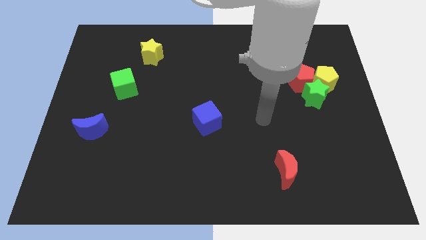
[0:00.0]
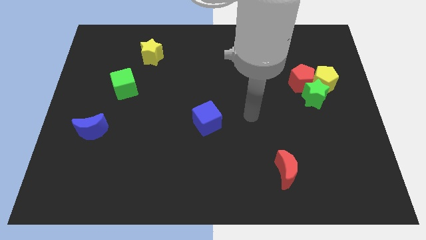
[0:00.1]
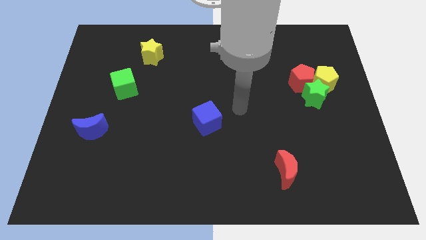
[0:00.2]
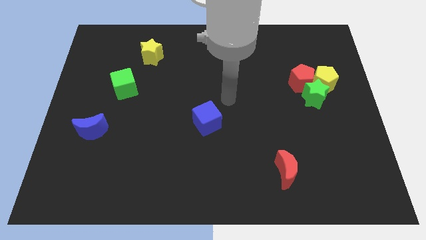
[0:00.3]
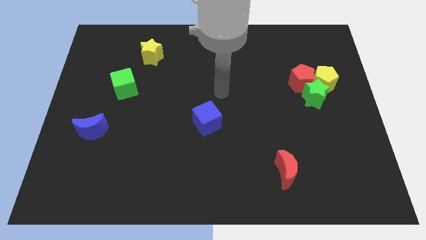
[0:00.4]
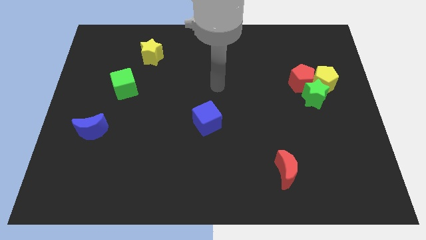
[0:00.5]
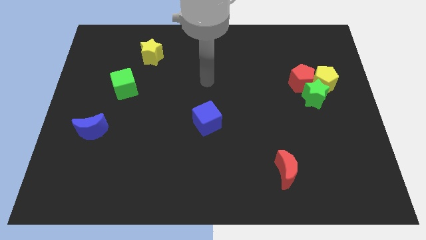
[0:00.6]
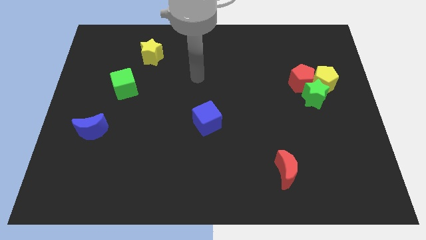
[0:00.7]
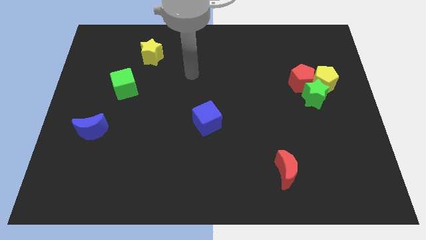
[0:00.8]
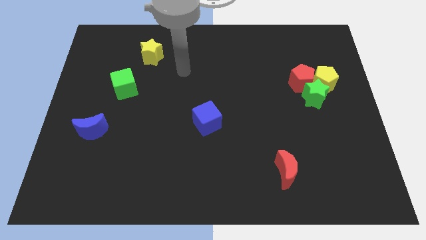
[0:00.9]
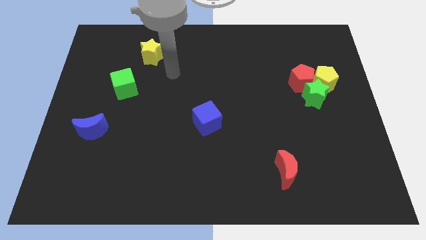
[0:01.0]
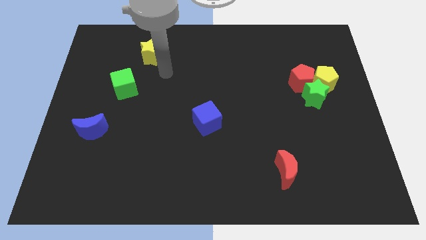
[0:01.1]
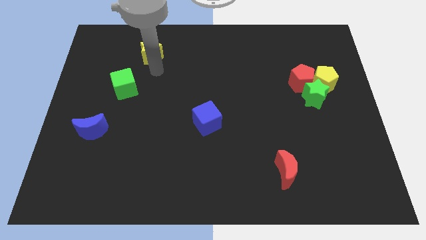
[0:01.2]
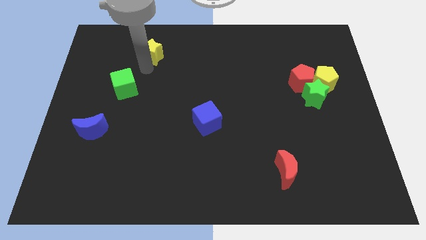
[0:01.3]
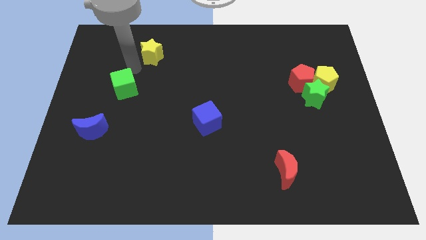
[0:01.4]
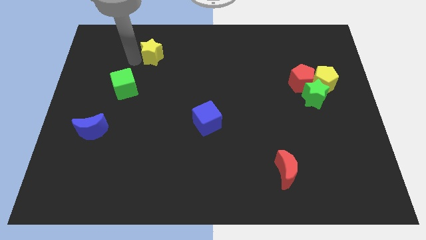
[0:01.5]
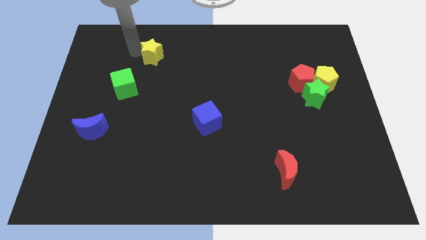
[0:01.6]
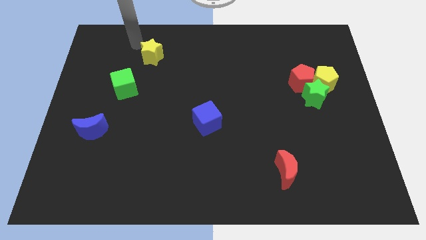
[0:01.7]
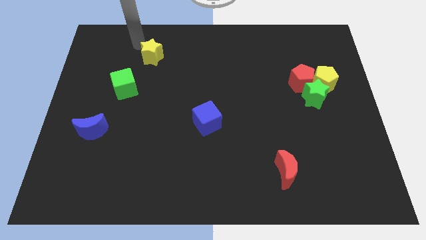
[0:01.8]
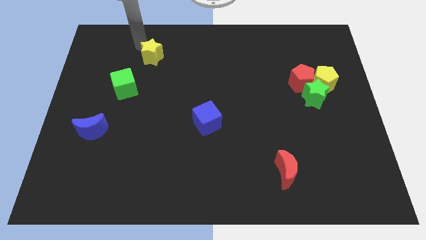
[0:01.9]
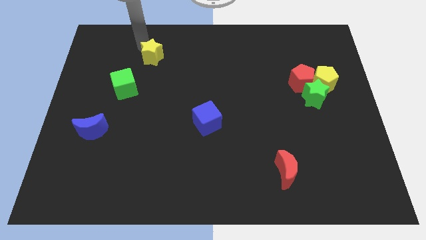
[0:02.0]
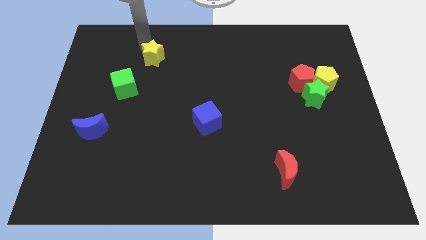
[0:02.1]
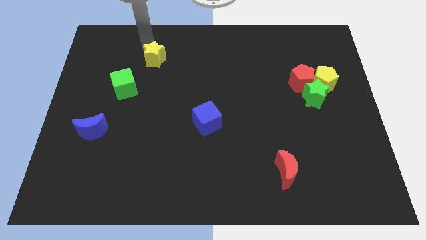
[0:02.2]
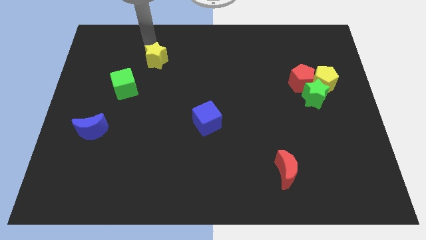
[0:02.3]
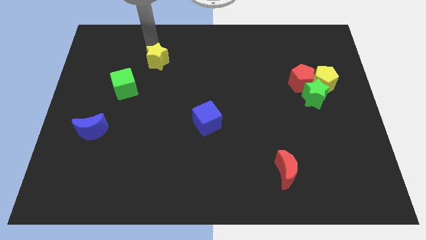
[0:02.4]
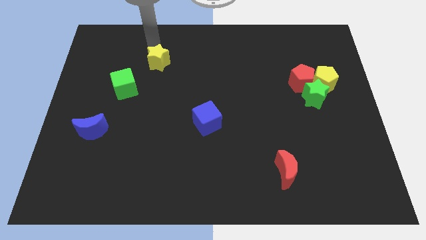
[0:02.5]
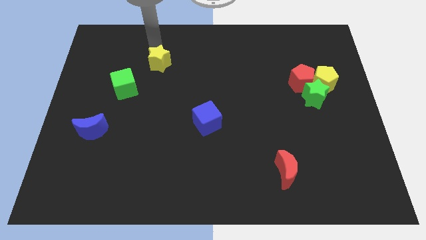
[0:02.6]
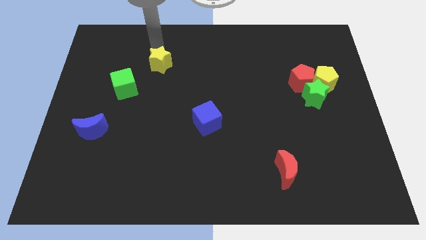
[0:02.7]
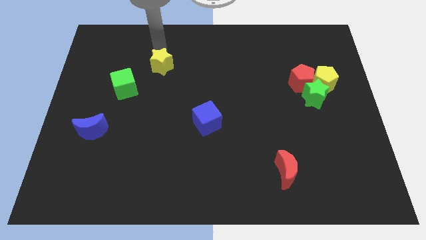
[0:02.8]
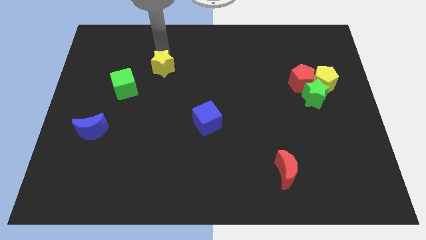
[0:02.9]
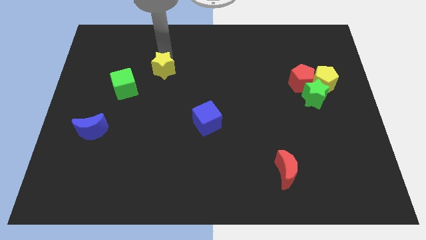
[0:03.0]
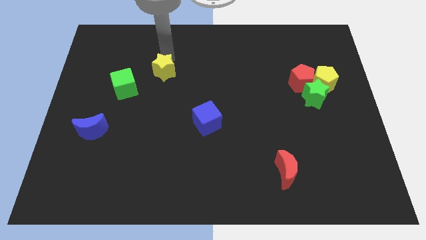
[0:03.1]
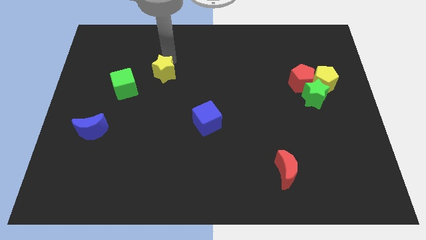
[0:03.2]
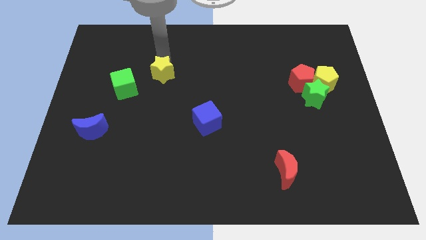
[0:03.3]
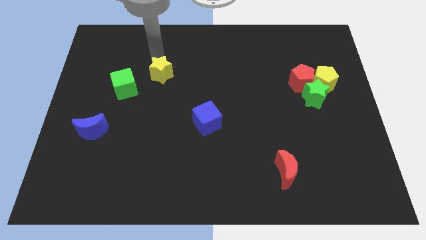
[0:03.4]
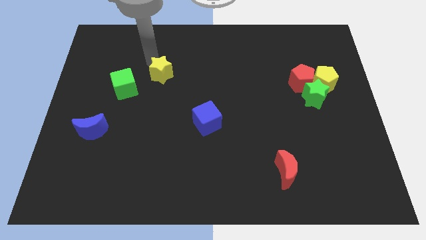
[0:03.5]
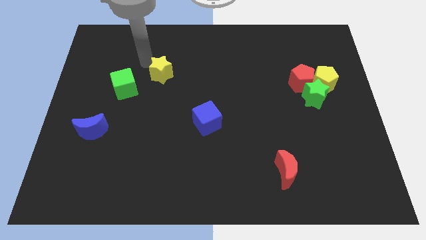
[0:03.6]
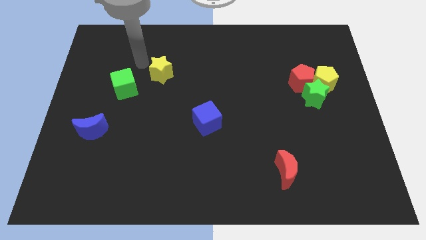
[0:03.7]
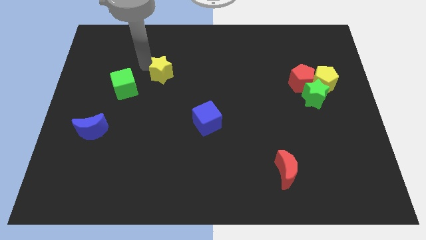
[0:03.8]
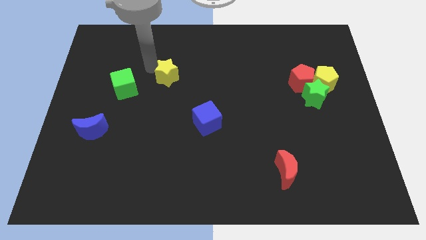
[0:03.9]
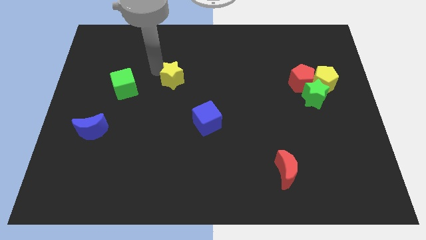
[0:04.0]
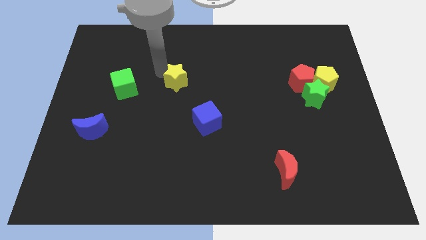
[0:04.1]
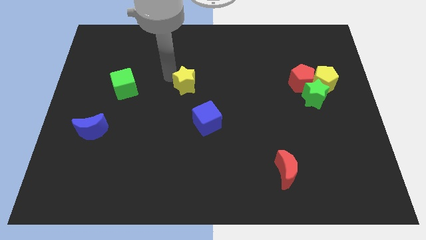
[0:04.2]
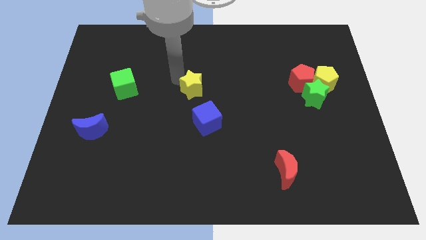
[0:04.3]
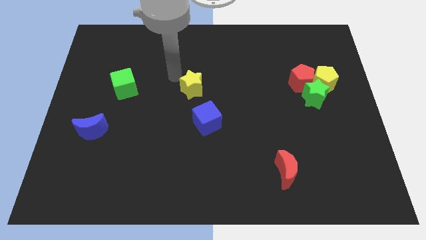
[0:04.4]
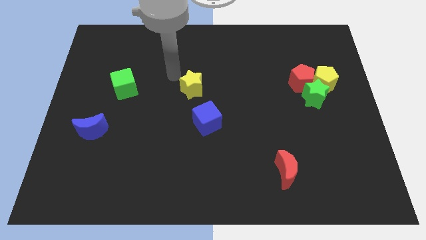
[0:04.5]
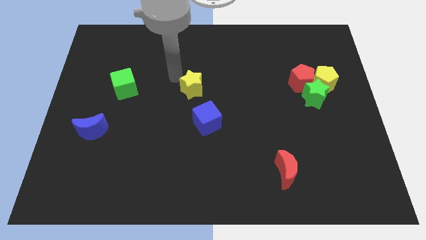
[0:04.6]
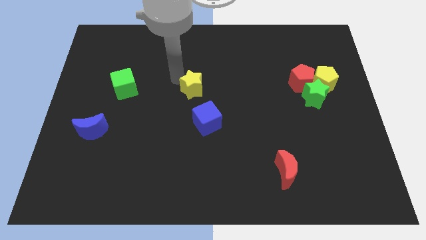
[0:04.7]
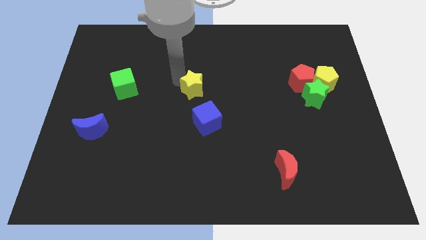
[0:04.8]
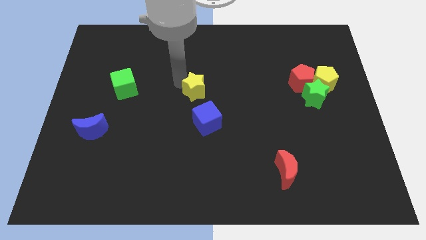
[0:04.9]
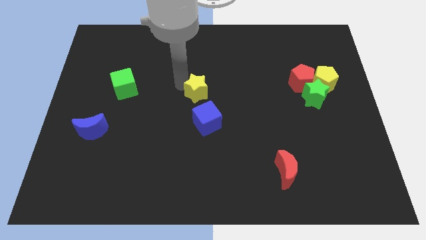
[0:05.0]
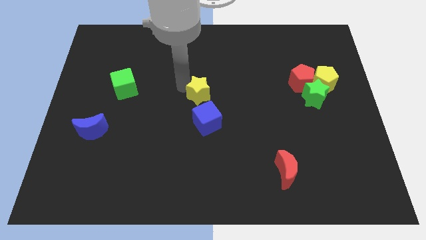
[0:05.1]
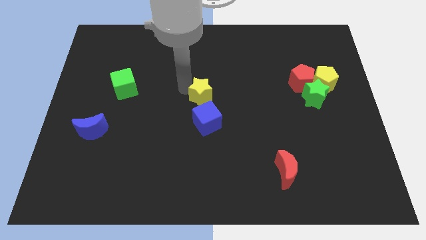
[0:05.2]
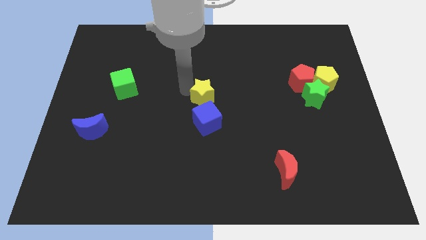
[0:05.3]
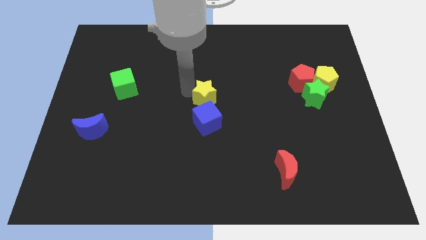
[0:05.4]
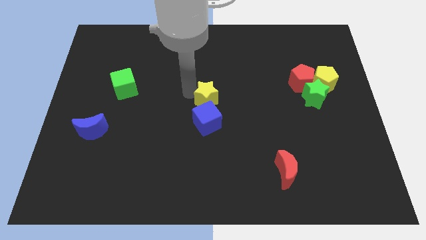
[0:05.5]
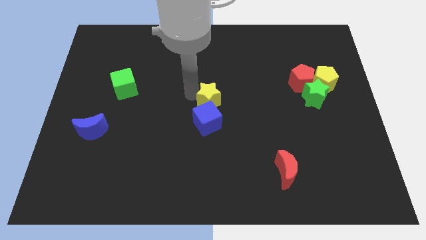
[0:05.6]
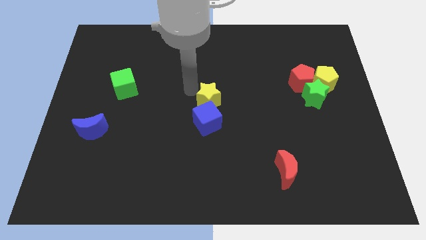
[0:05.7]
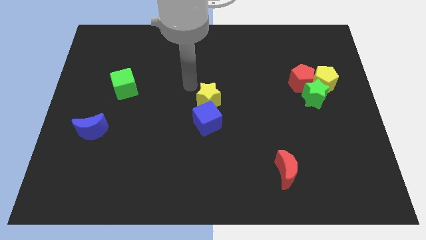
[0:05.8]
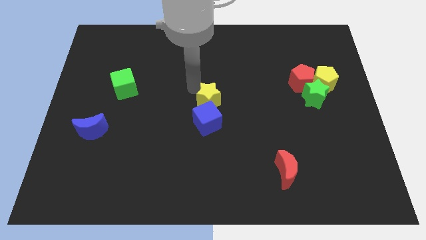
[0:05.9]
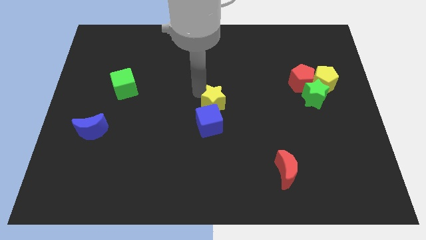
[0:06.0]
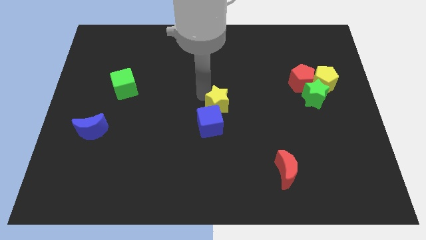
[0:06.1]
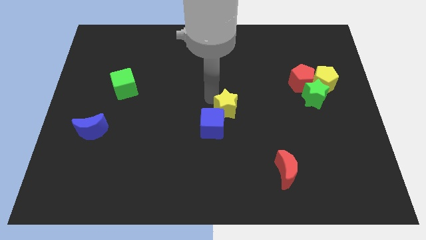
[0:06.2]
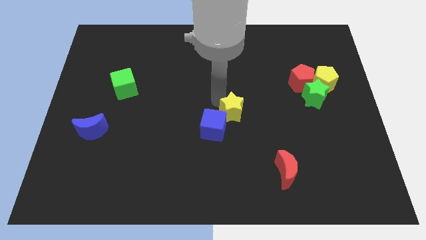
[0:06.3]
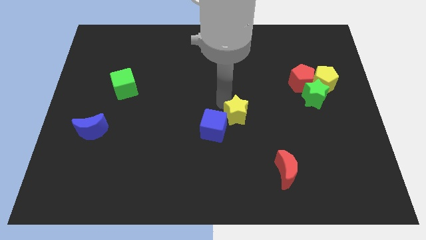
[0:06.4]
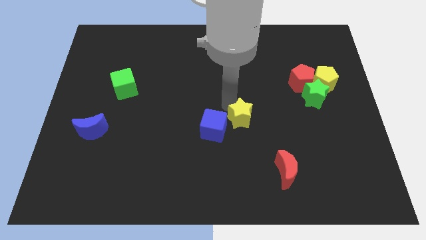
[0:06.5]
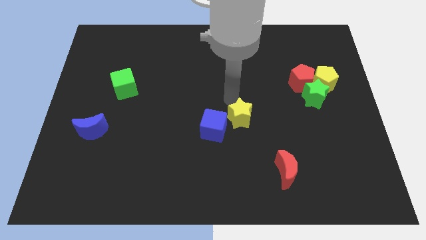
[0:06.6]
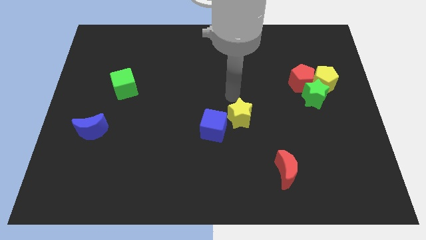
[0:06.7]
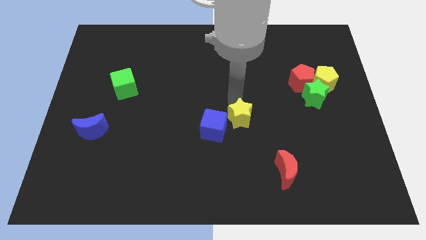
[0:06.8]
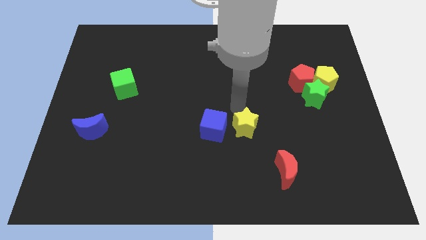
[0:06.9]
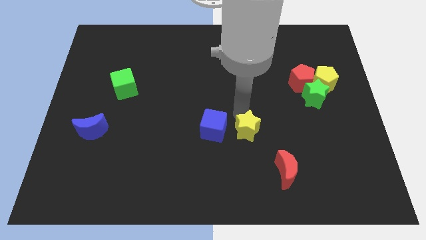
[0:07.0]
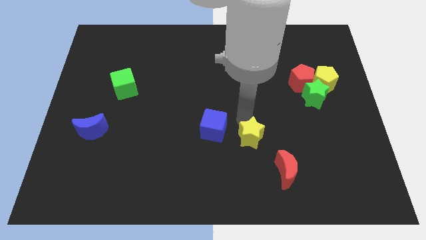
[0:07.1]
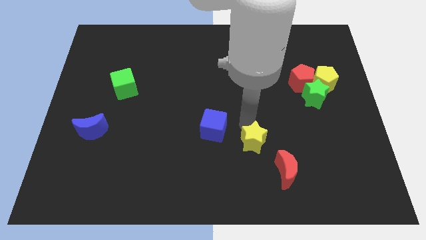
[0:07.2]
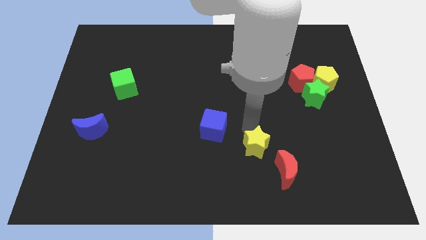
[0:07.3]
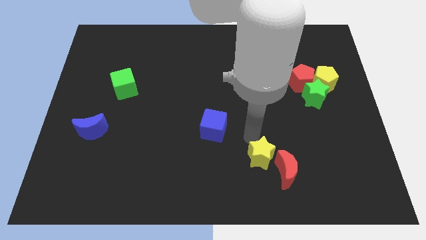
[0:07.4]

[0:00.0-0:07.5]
move the yellow star close to the red moon
